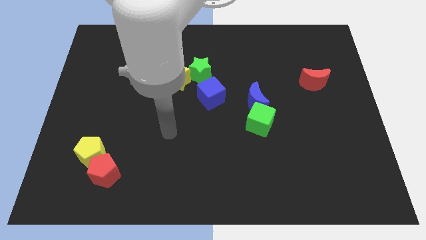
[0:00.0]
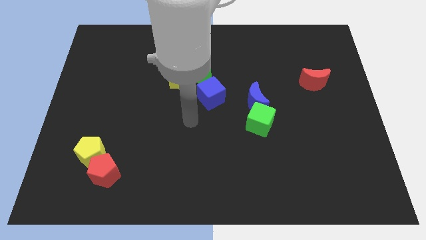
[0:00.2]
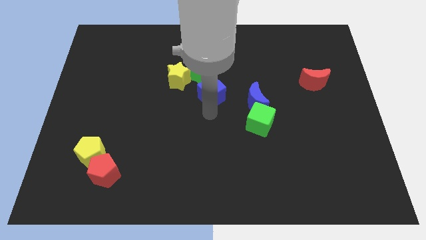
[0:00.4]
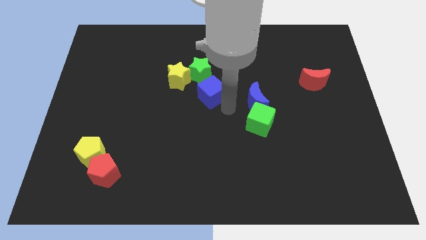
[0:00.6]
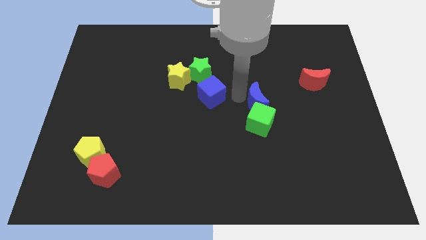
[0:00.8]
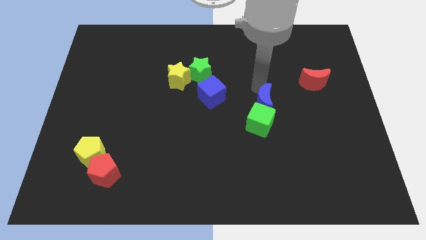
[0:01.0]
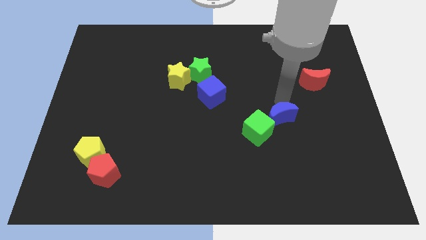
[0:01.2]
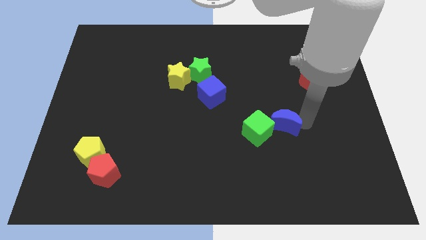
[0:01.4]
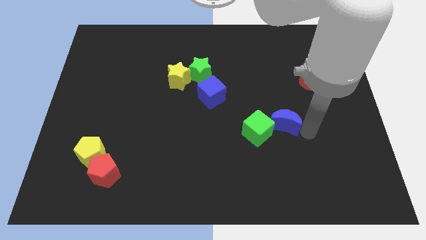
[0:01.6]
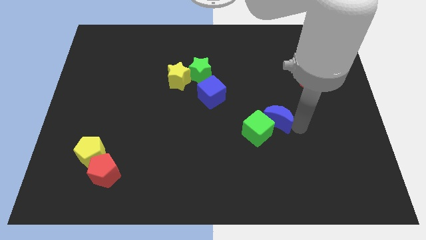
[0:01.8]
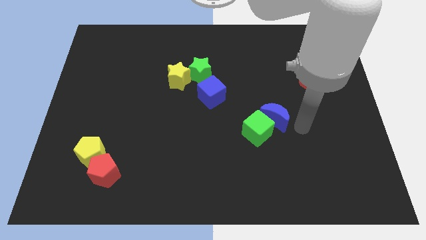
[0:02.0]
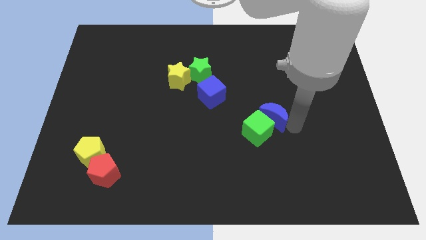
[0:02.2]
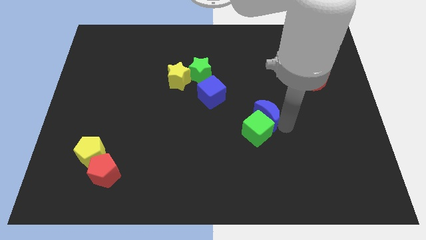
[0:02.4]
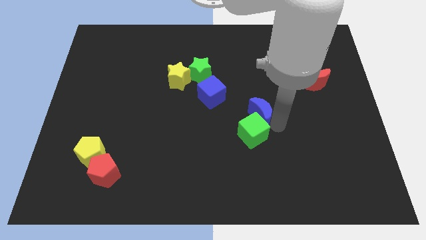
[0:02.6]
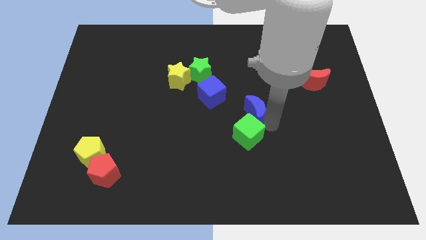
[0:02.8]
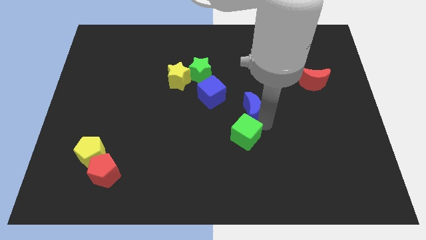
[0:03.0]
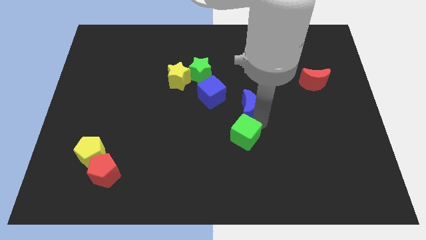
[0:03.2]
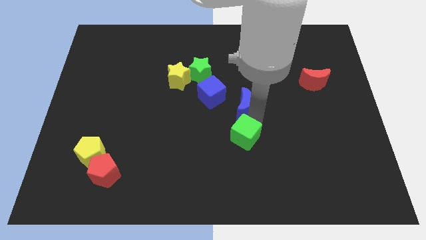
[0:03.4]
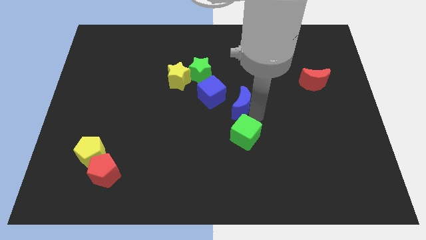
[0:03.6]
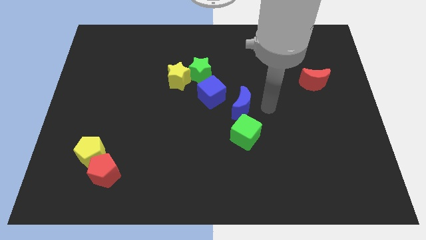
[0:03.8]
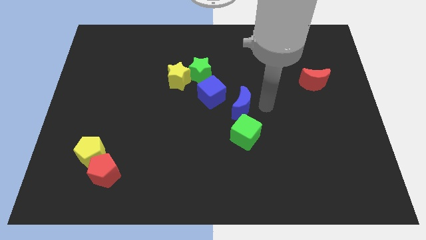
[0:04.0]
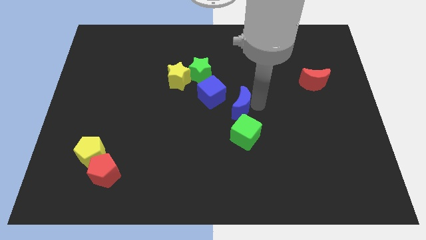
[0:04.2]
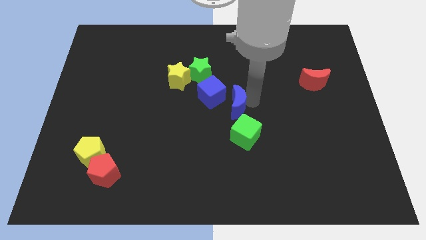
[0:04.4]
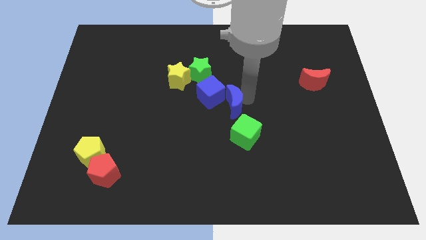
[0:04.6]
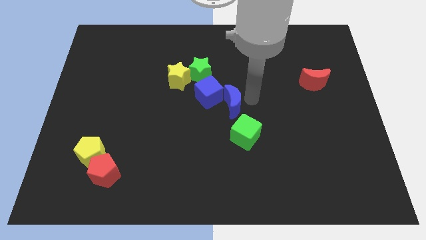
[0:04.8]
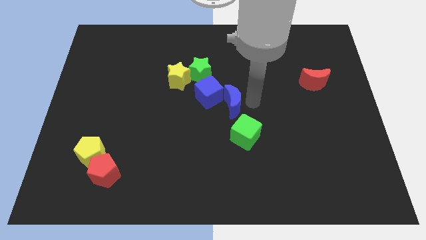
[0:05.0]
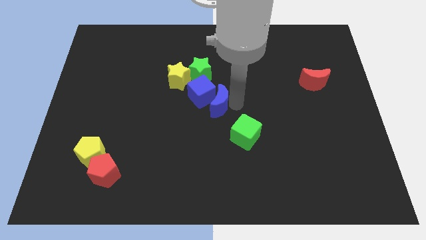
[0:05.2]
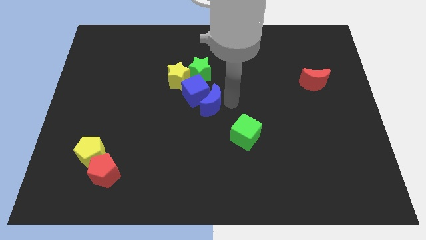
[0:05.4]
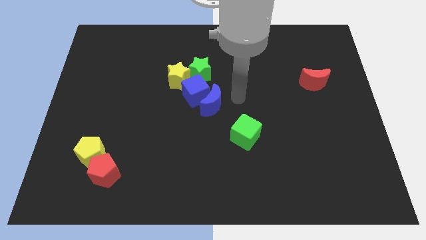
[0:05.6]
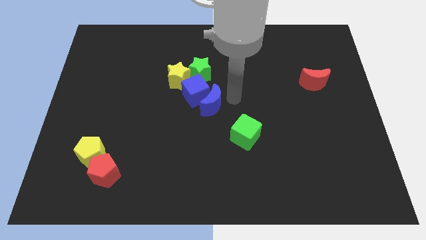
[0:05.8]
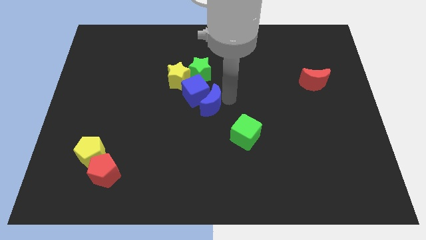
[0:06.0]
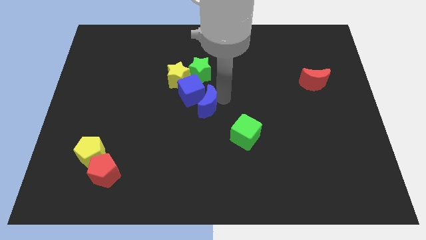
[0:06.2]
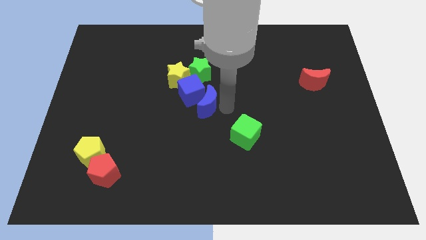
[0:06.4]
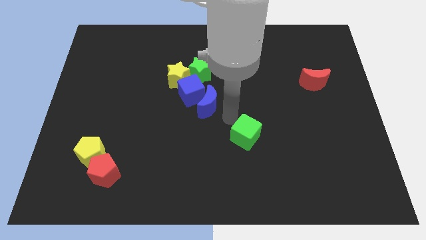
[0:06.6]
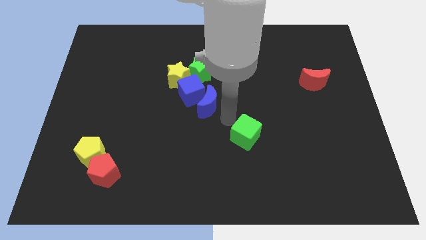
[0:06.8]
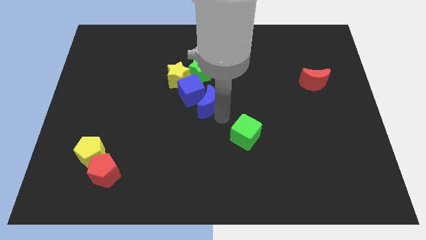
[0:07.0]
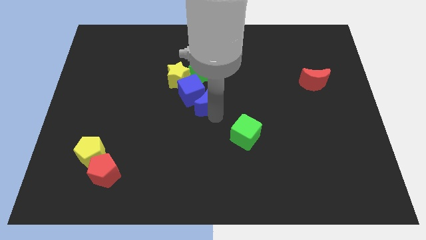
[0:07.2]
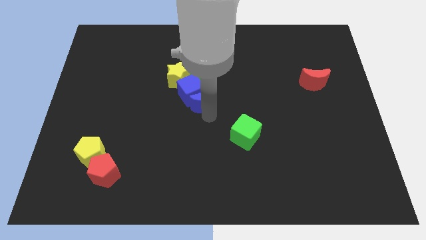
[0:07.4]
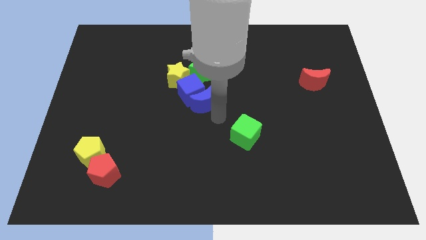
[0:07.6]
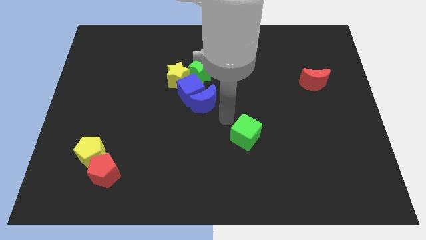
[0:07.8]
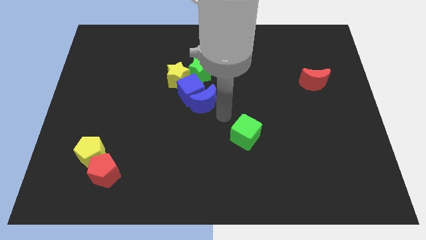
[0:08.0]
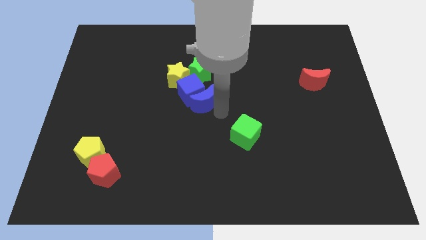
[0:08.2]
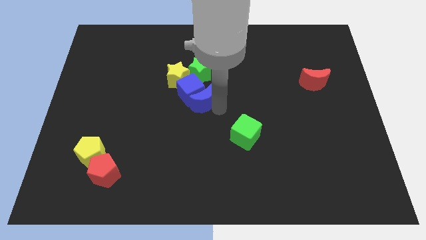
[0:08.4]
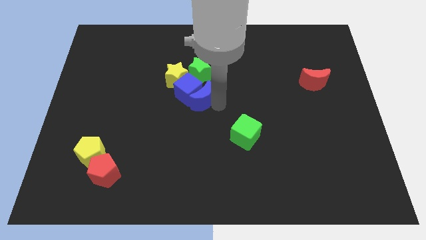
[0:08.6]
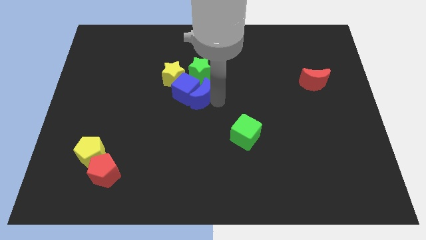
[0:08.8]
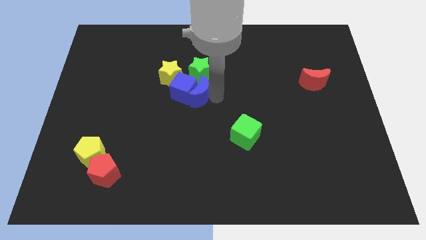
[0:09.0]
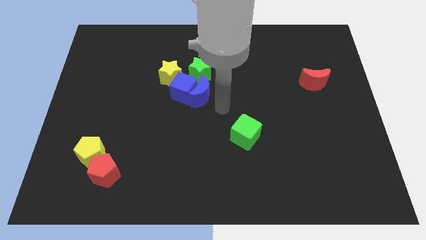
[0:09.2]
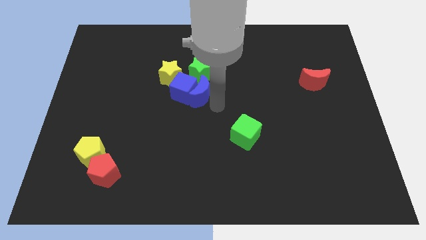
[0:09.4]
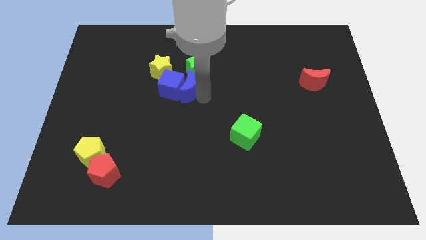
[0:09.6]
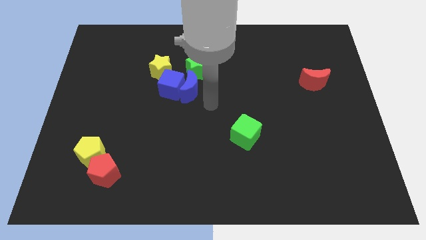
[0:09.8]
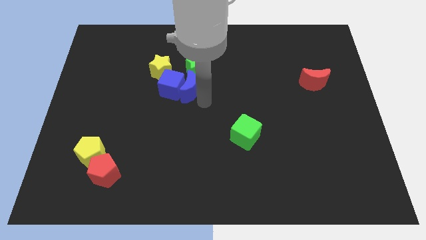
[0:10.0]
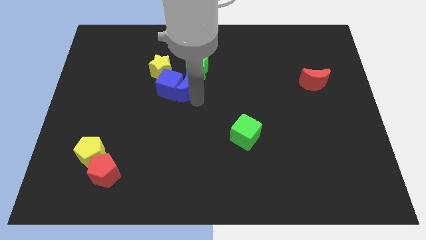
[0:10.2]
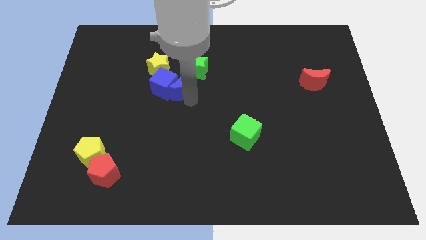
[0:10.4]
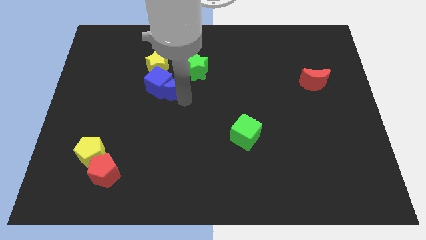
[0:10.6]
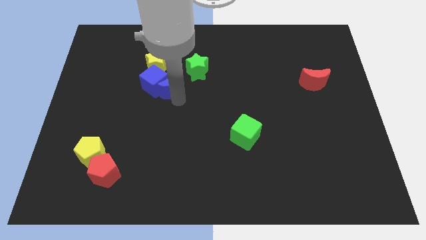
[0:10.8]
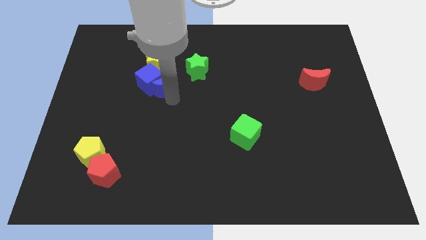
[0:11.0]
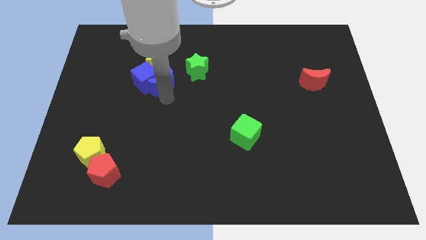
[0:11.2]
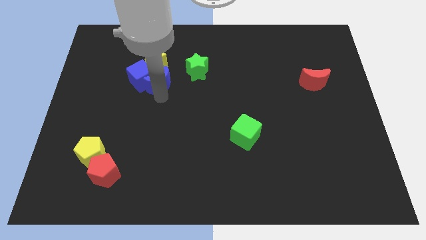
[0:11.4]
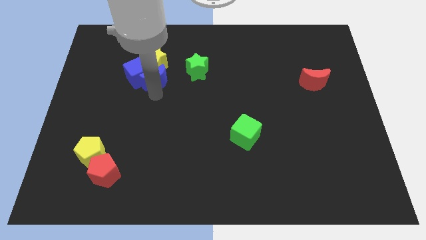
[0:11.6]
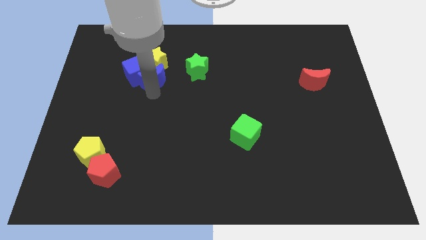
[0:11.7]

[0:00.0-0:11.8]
slide the blue moon close to the yellow star
